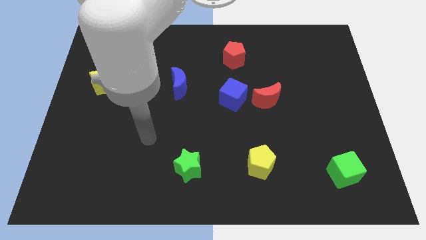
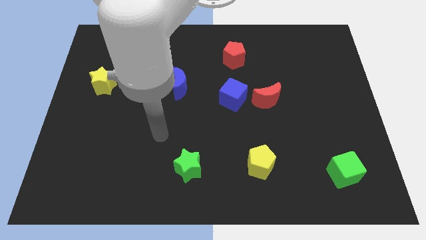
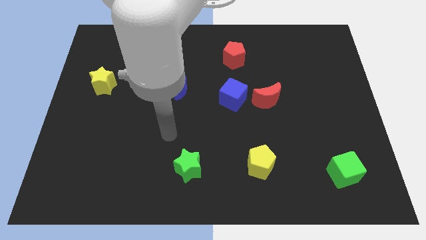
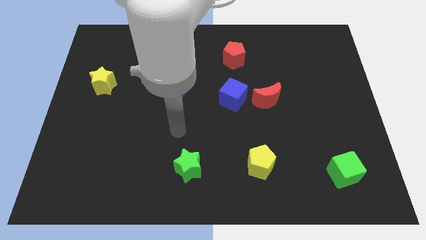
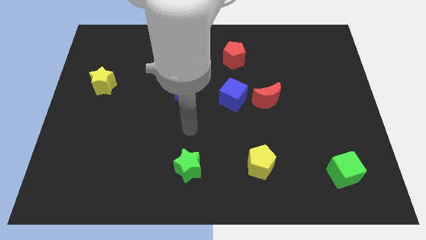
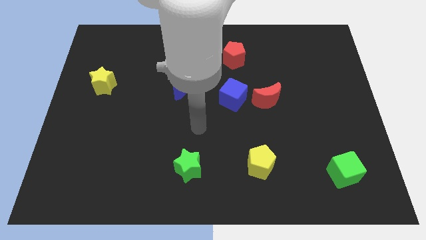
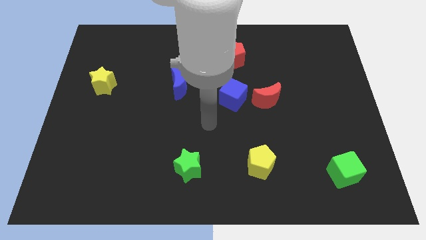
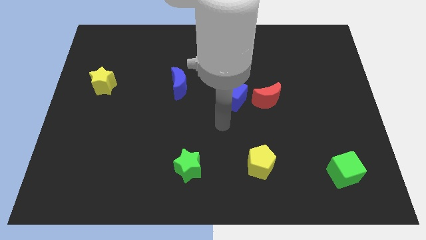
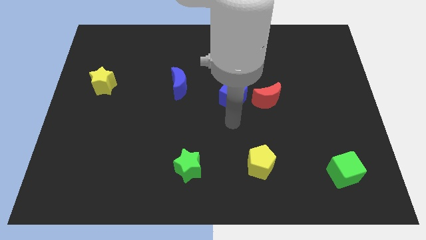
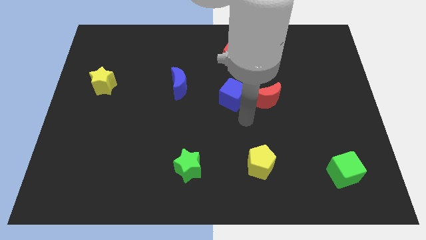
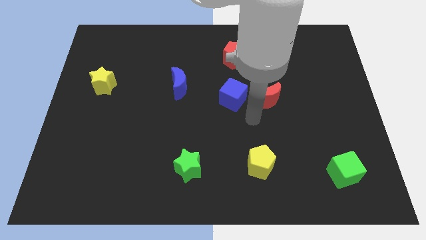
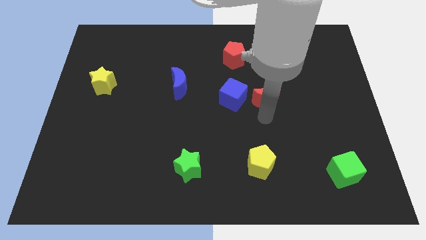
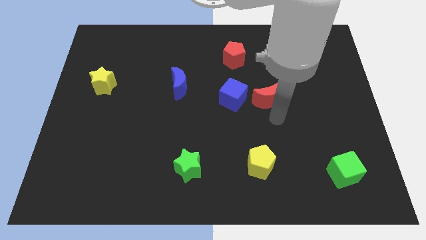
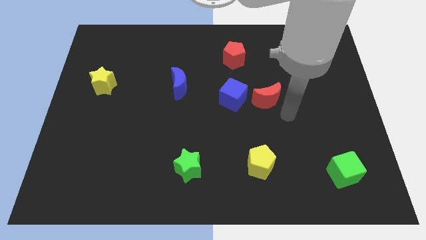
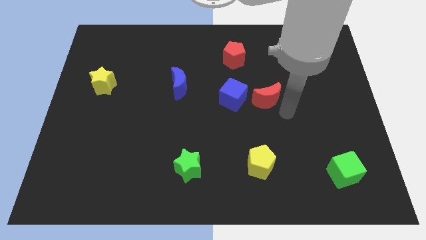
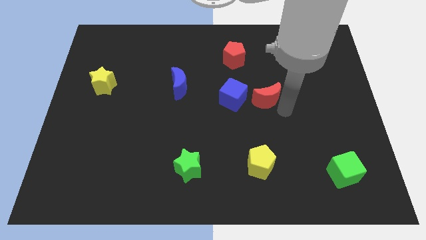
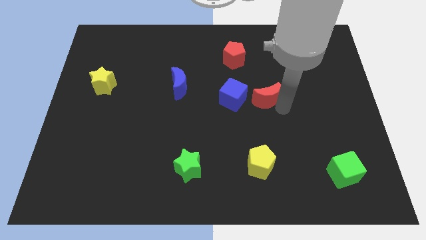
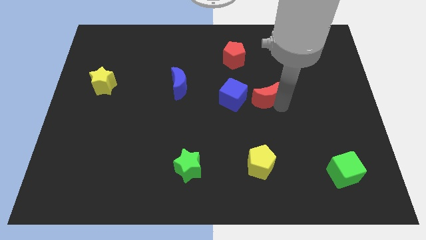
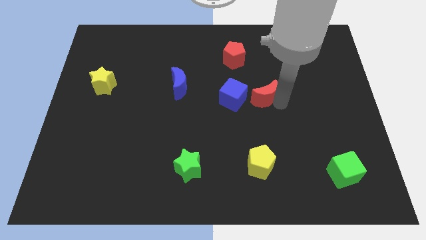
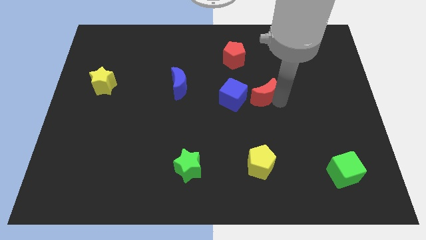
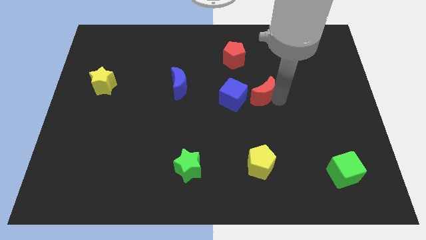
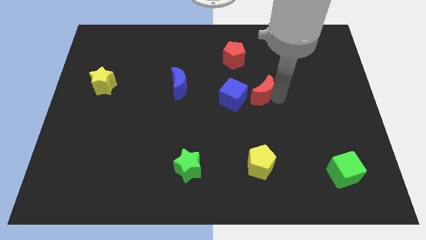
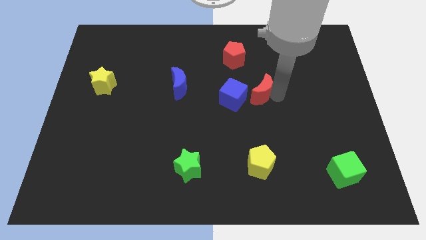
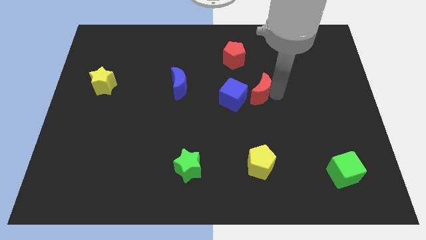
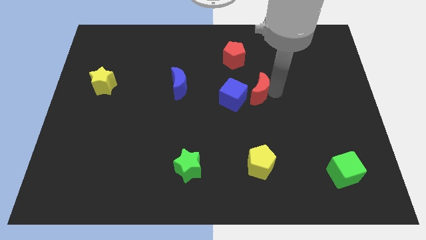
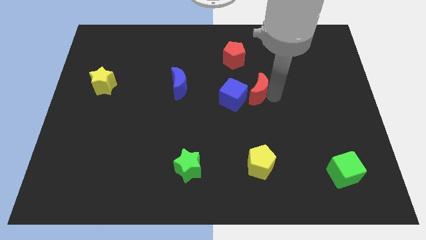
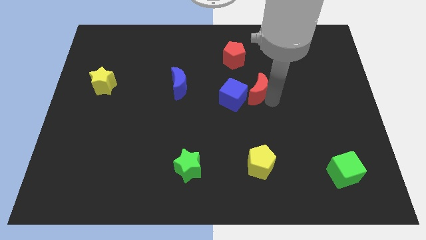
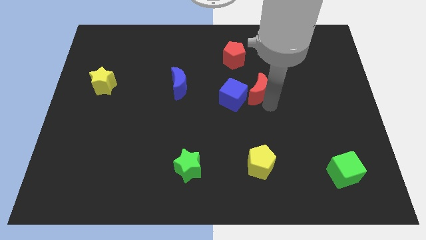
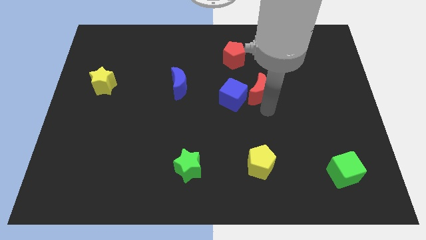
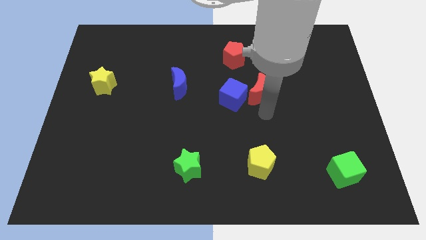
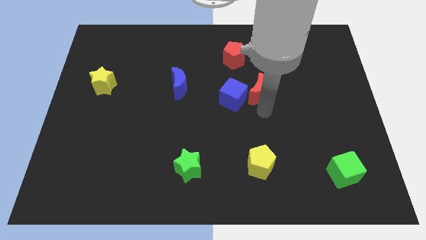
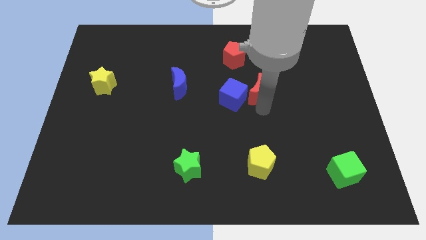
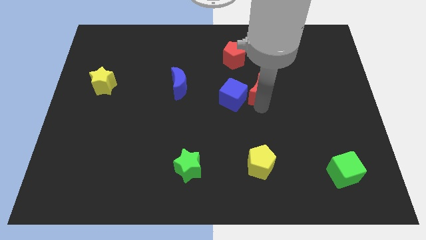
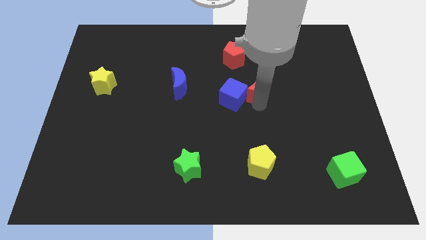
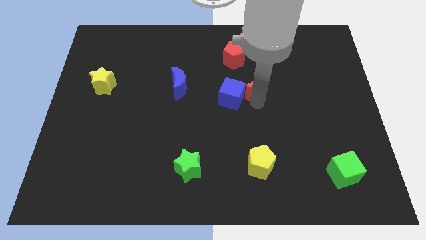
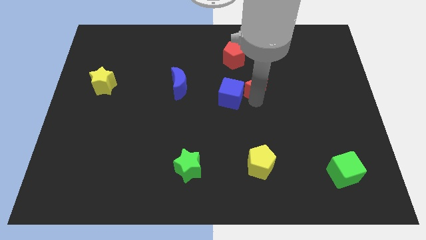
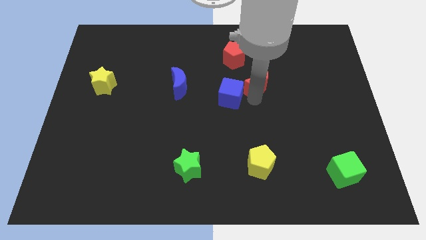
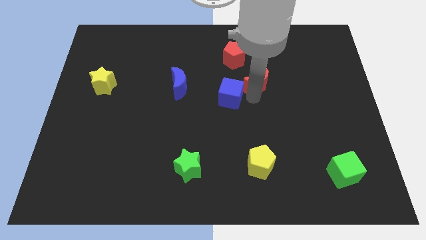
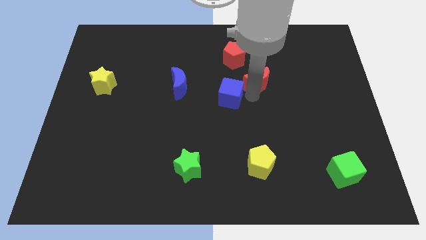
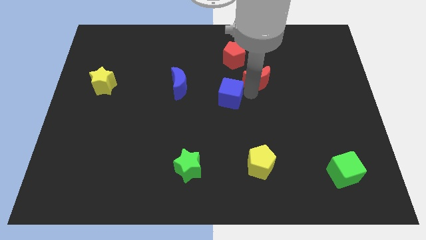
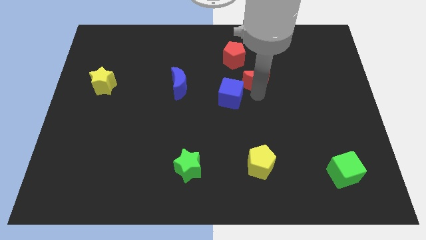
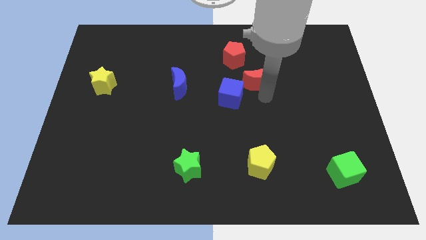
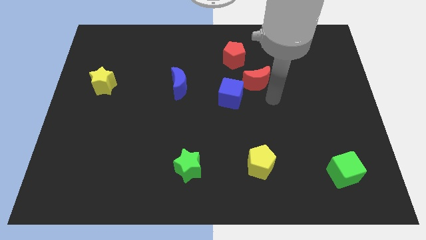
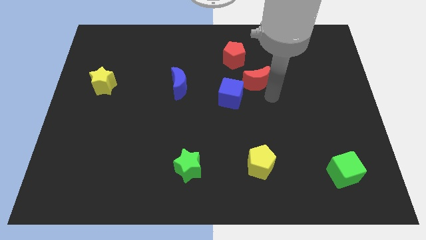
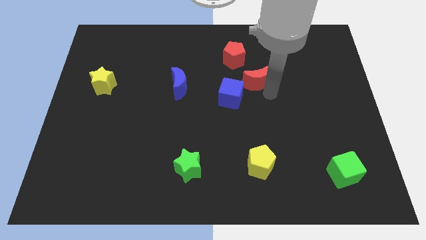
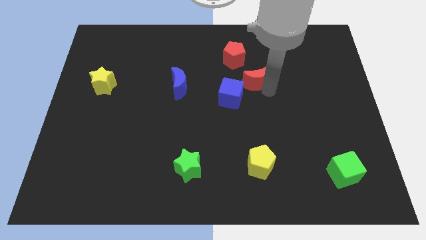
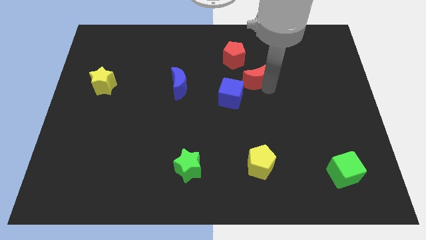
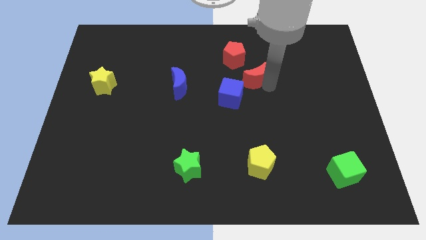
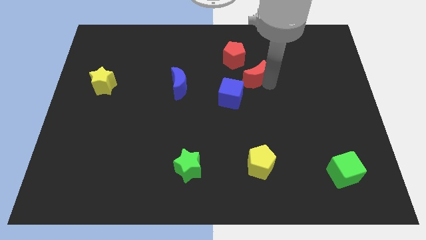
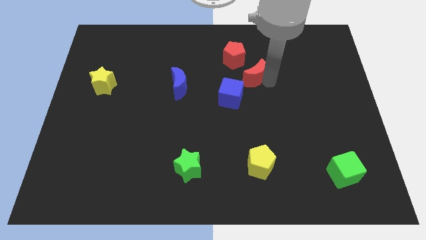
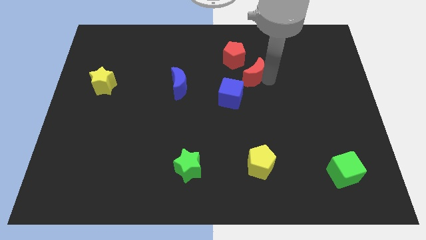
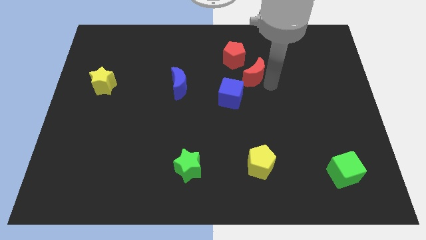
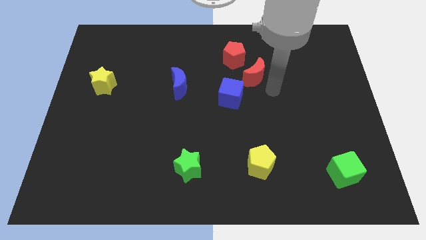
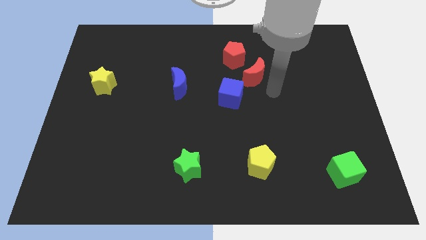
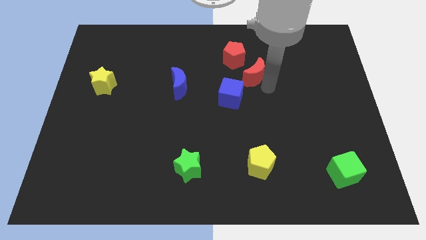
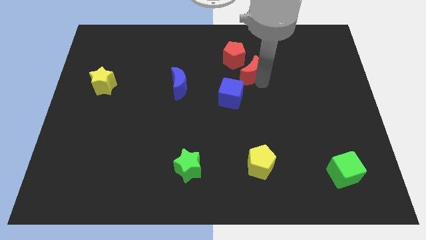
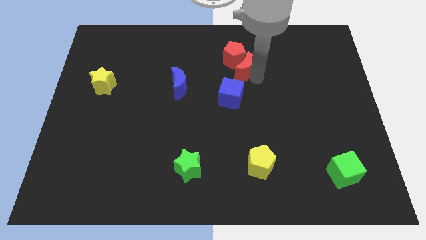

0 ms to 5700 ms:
slide the red moon to the red pentagon

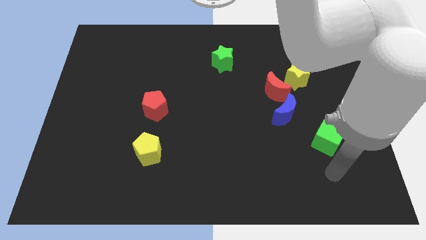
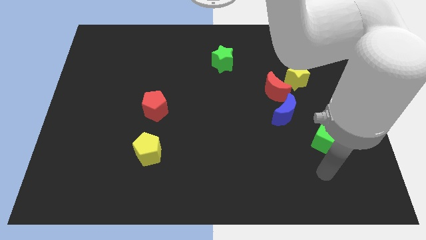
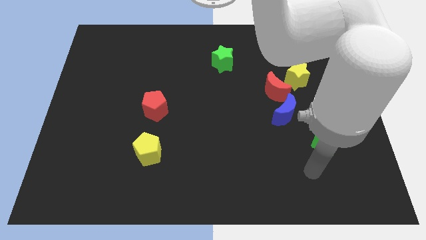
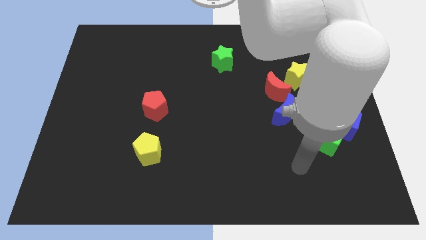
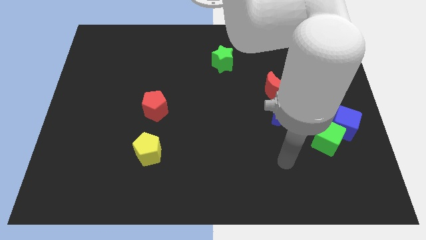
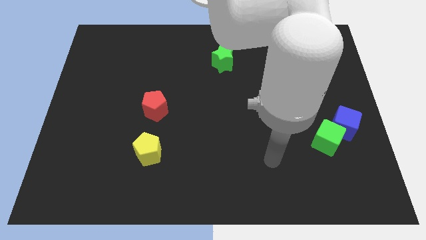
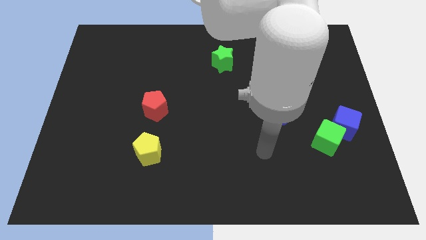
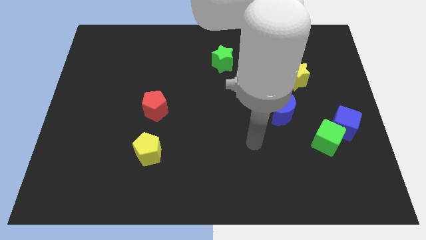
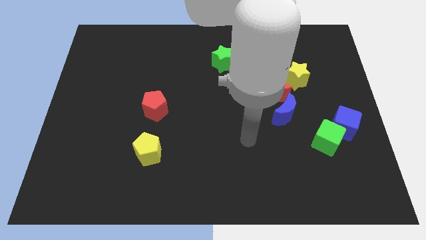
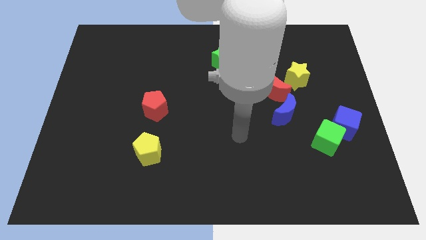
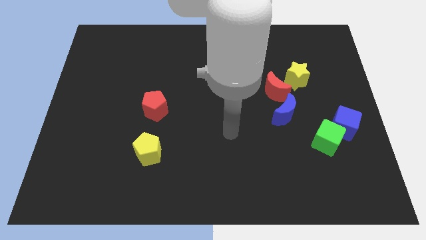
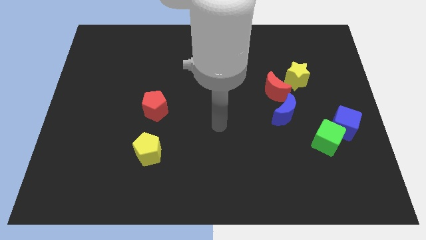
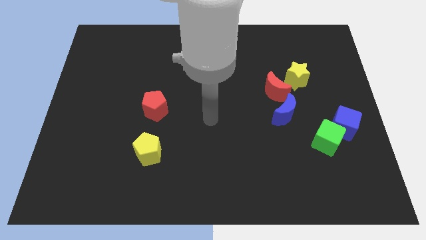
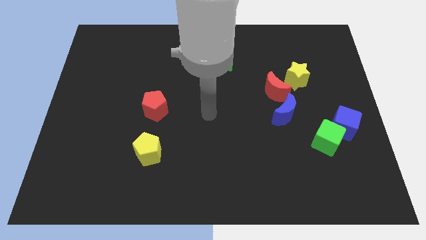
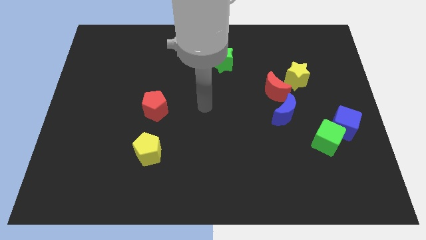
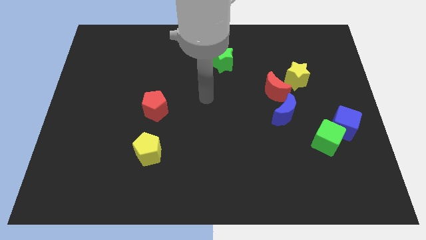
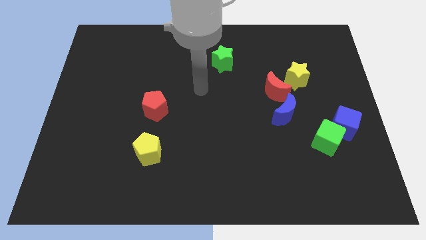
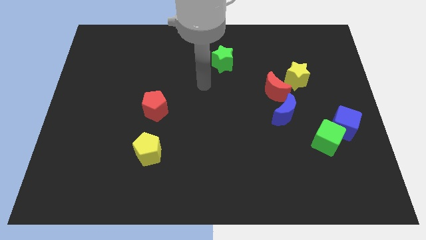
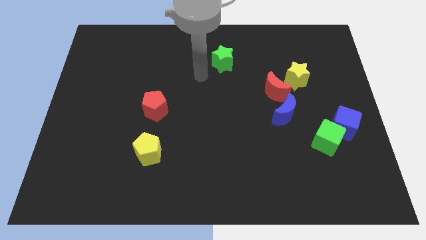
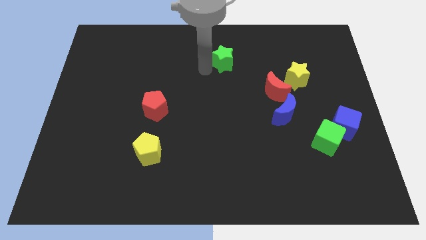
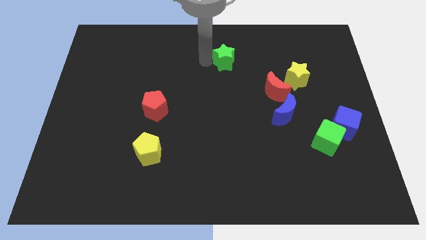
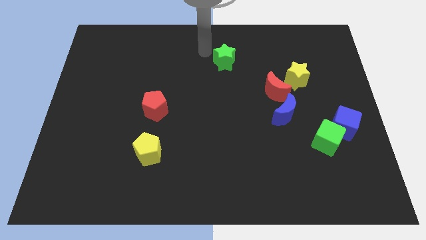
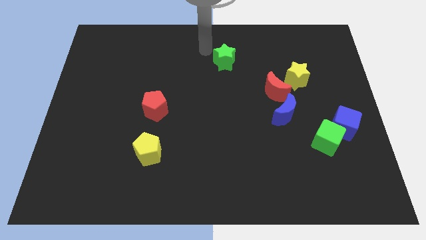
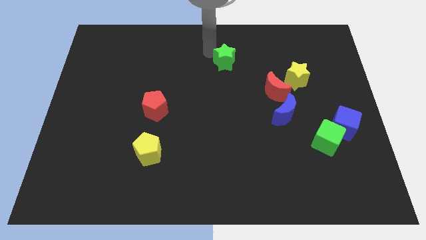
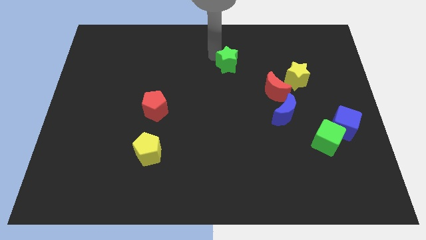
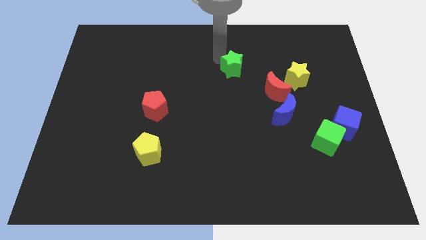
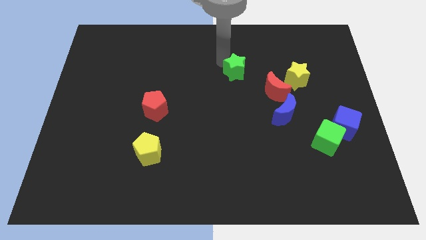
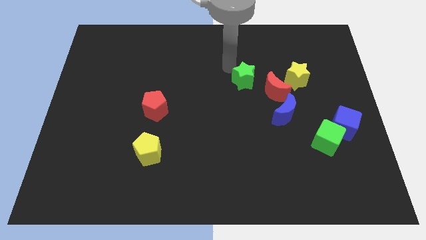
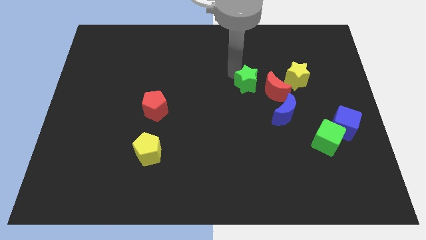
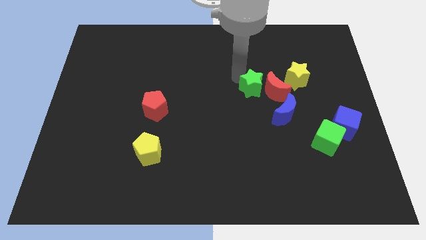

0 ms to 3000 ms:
move the green star close to the red moon
